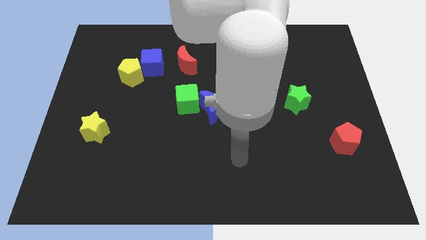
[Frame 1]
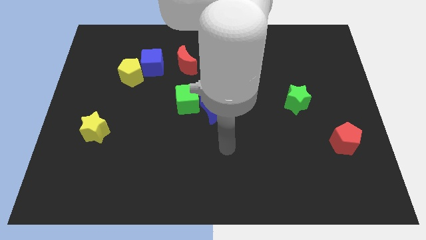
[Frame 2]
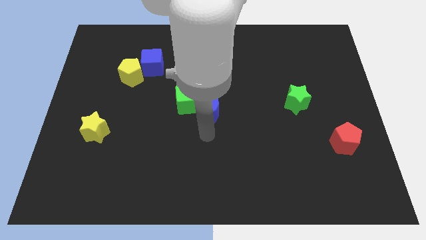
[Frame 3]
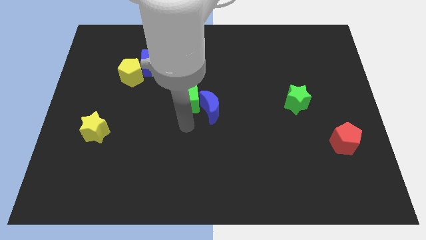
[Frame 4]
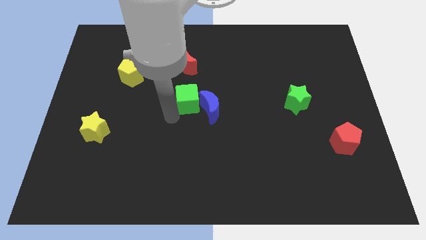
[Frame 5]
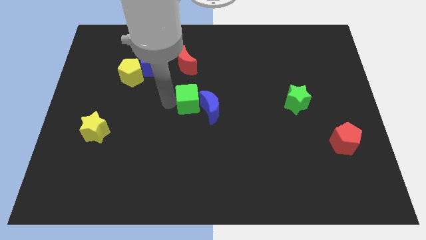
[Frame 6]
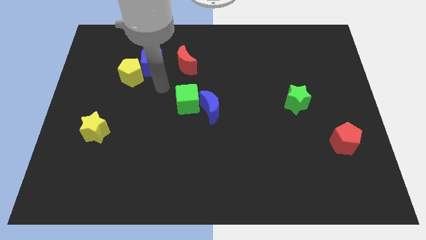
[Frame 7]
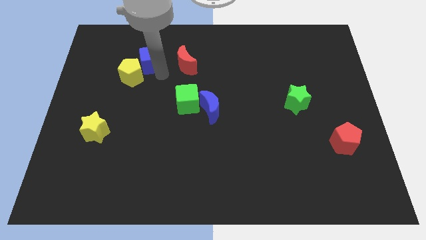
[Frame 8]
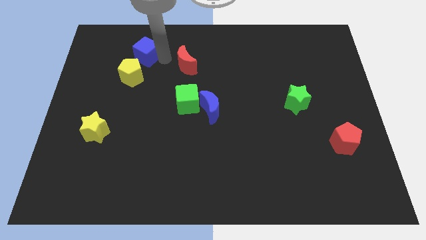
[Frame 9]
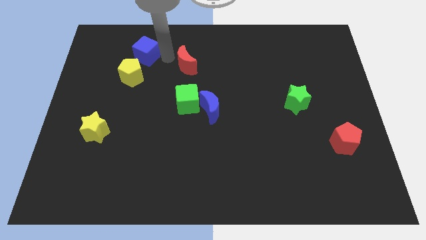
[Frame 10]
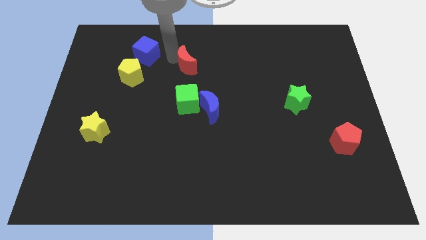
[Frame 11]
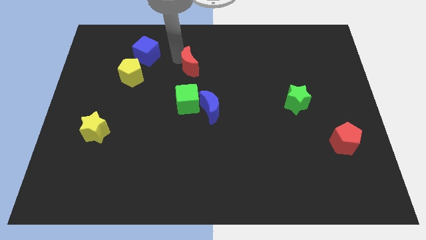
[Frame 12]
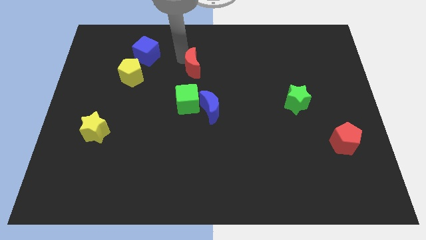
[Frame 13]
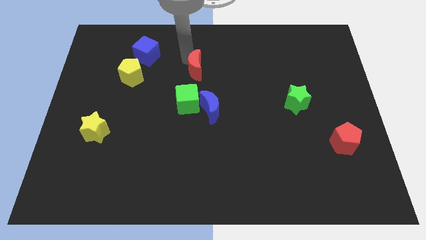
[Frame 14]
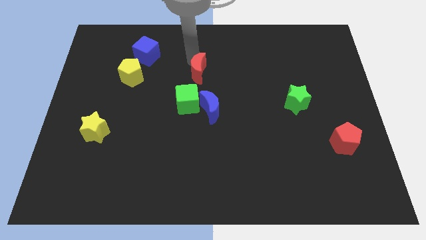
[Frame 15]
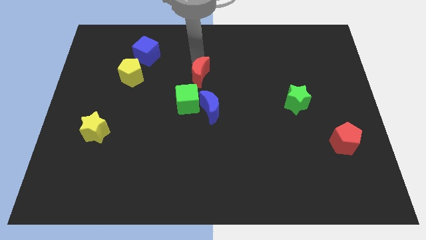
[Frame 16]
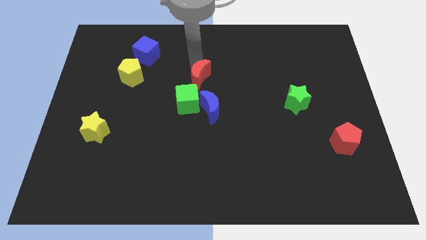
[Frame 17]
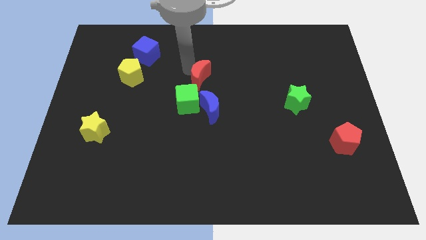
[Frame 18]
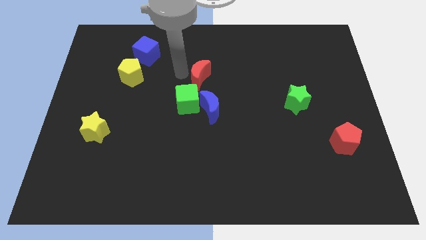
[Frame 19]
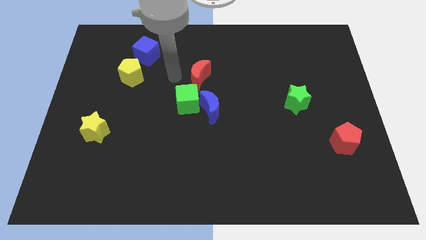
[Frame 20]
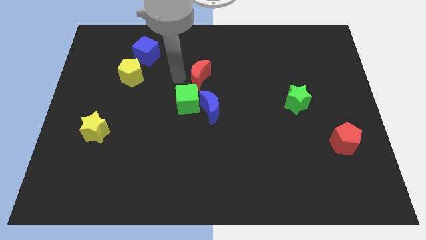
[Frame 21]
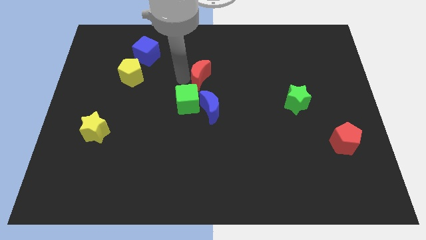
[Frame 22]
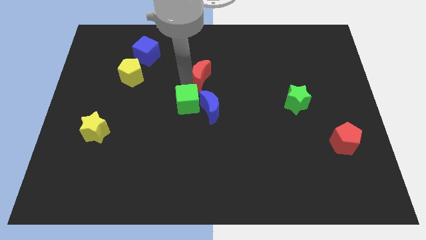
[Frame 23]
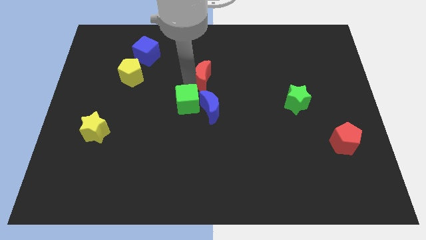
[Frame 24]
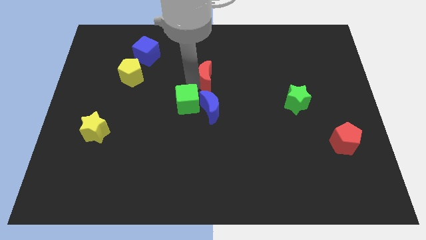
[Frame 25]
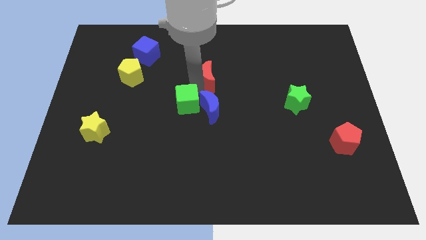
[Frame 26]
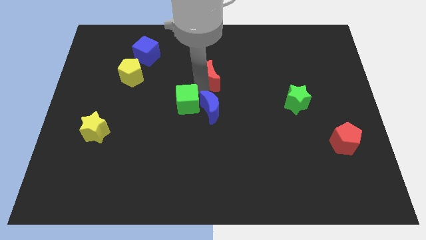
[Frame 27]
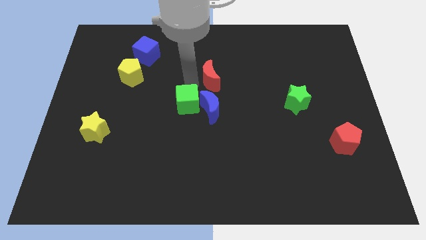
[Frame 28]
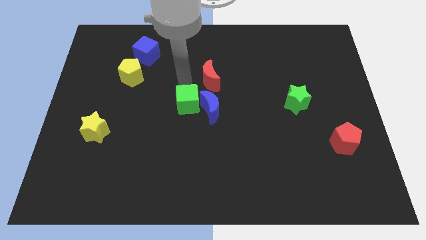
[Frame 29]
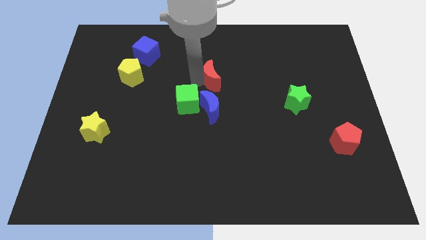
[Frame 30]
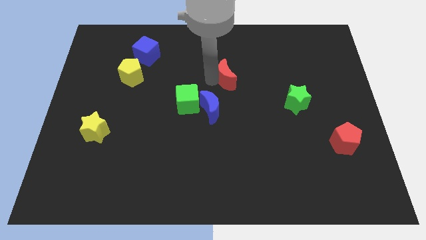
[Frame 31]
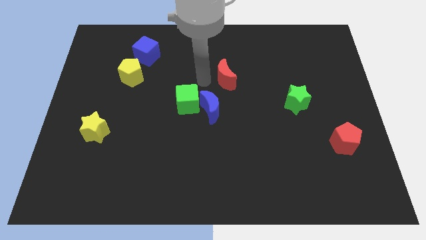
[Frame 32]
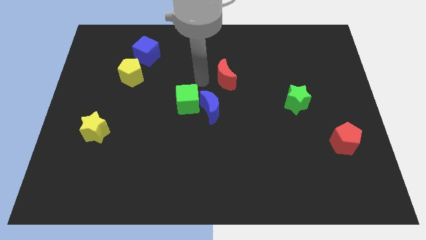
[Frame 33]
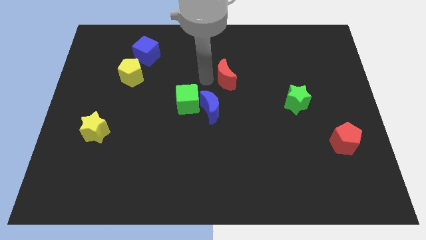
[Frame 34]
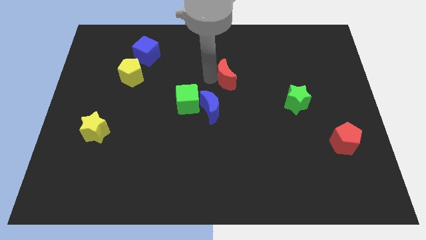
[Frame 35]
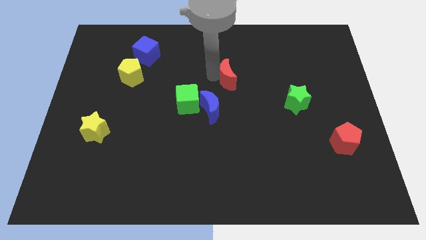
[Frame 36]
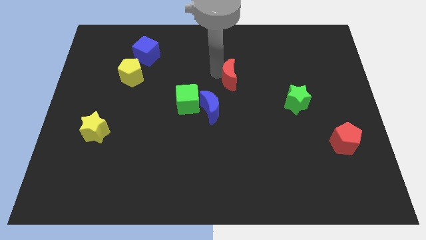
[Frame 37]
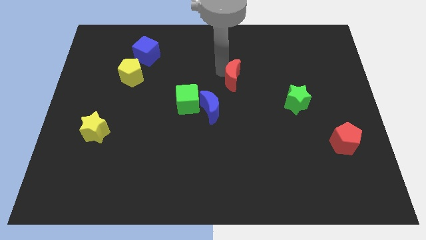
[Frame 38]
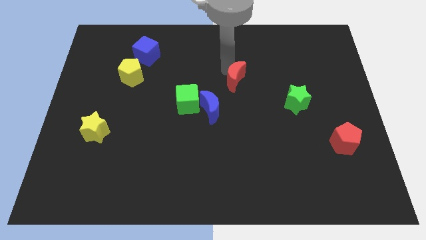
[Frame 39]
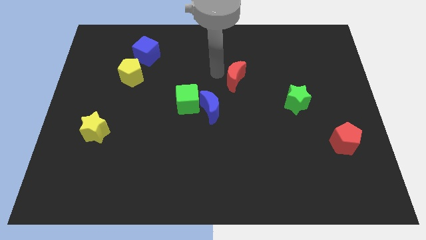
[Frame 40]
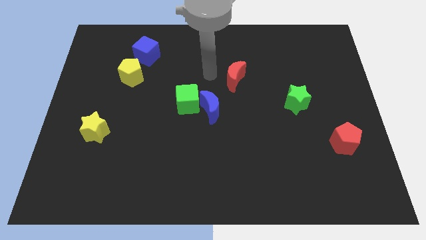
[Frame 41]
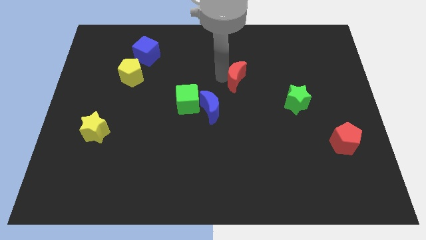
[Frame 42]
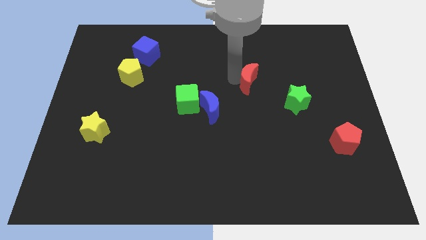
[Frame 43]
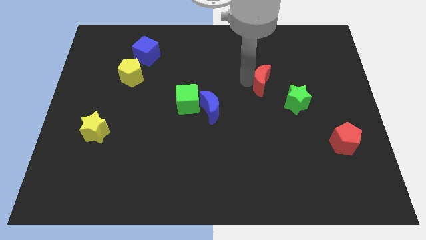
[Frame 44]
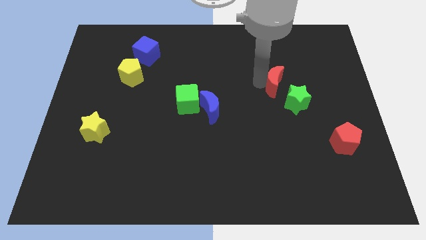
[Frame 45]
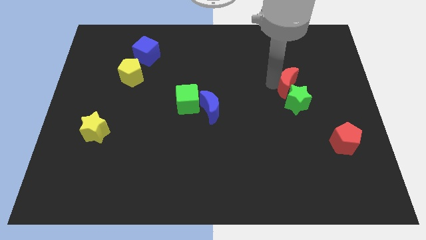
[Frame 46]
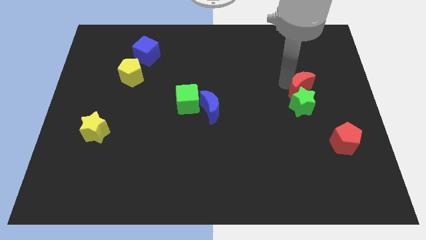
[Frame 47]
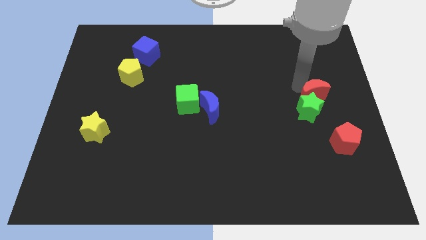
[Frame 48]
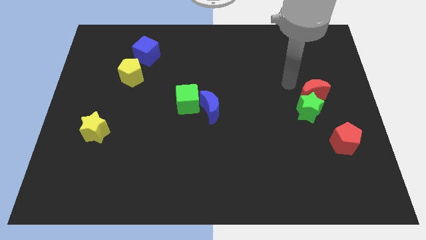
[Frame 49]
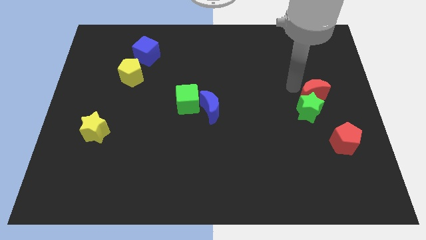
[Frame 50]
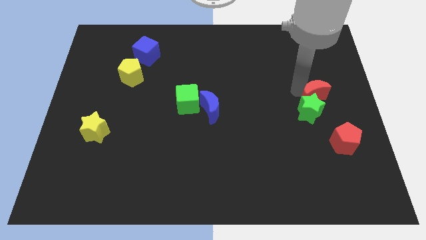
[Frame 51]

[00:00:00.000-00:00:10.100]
move the red moon above the red pentagon

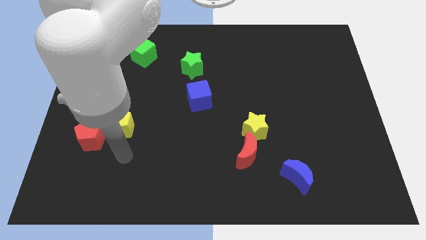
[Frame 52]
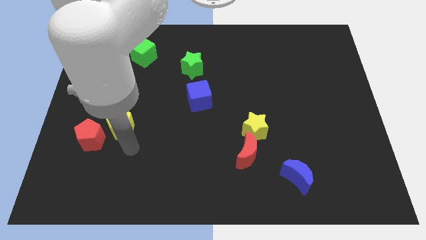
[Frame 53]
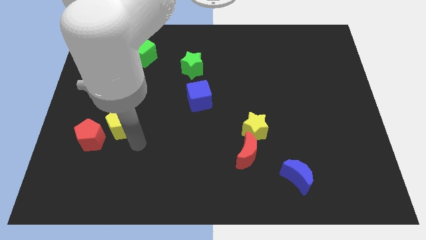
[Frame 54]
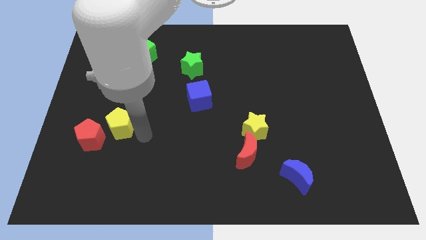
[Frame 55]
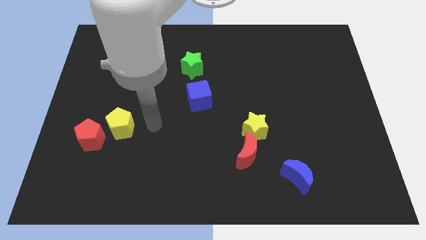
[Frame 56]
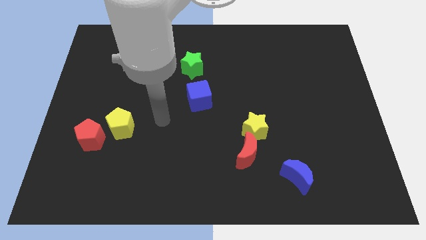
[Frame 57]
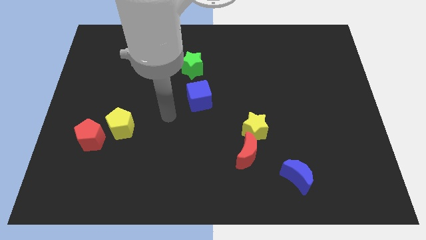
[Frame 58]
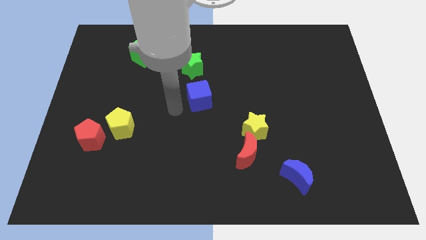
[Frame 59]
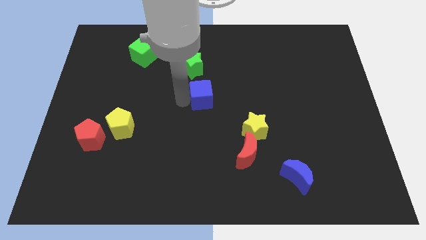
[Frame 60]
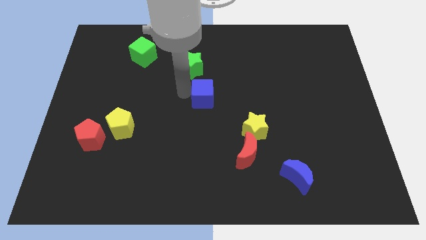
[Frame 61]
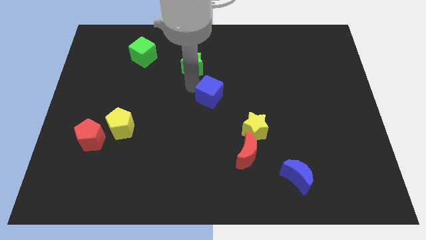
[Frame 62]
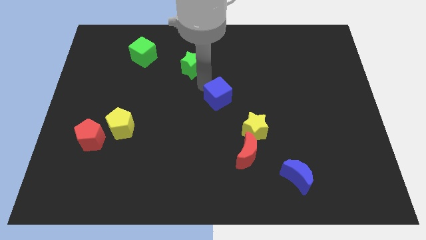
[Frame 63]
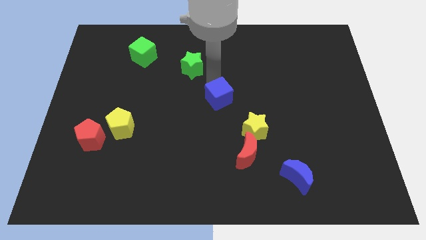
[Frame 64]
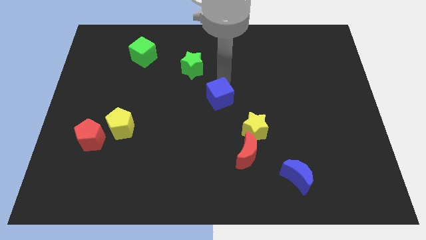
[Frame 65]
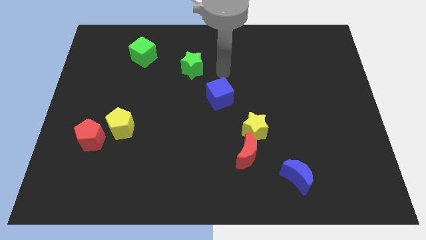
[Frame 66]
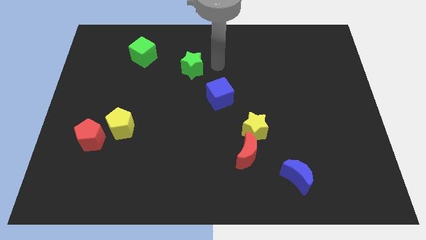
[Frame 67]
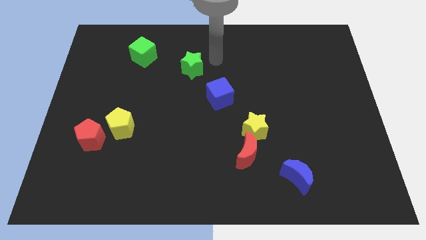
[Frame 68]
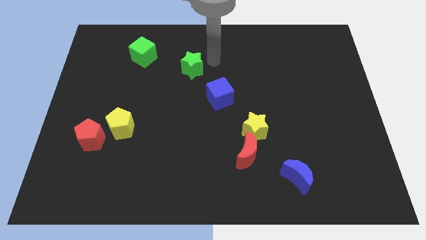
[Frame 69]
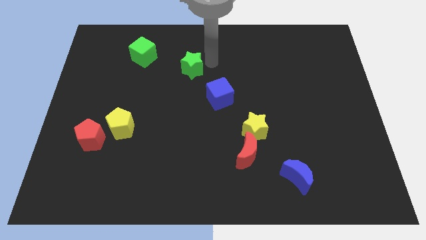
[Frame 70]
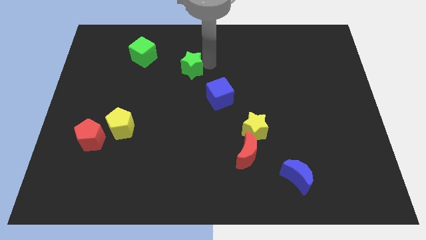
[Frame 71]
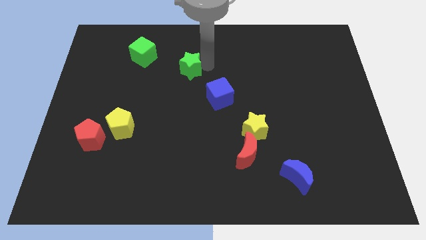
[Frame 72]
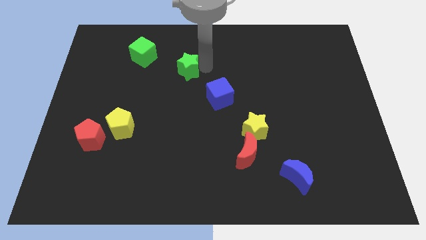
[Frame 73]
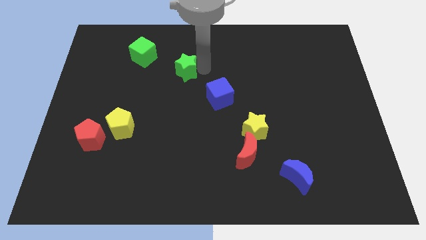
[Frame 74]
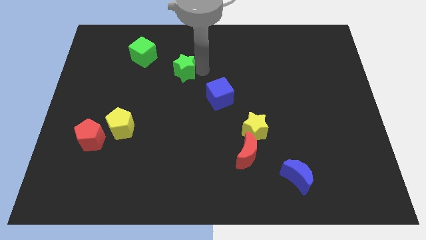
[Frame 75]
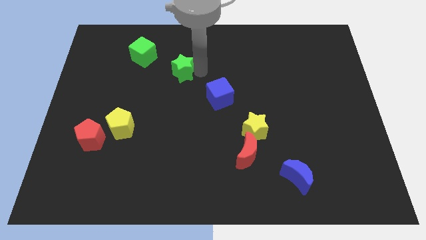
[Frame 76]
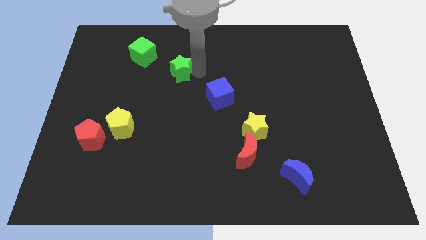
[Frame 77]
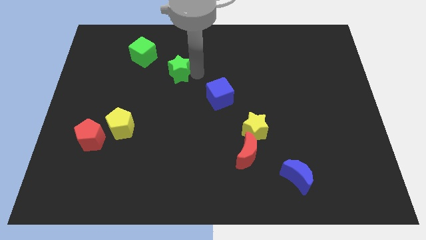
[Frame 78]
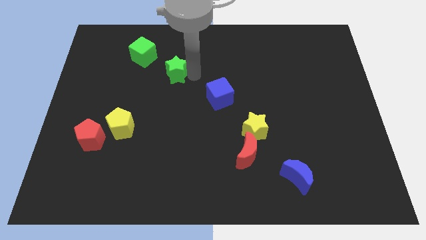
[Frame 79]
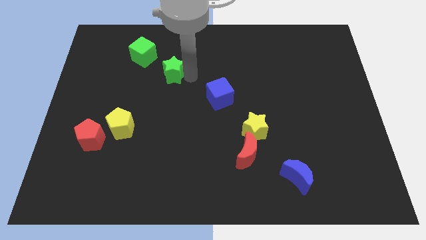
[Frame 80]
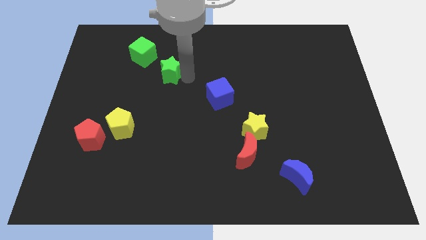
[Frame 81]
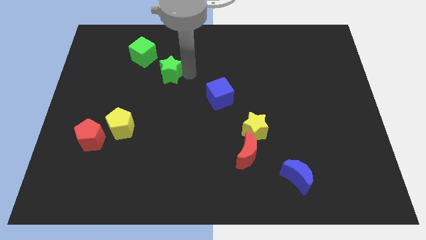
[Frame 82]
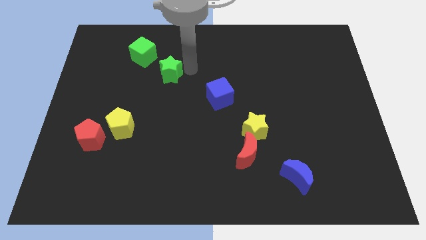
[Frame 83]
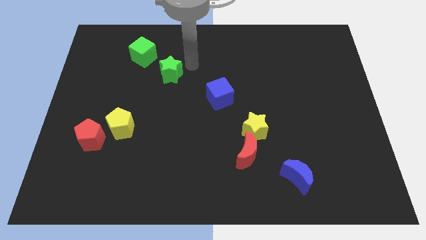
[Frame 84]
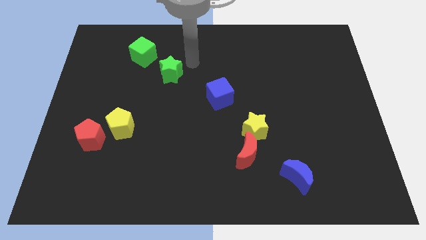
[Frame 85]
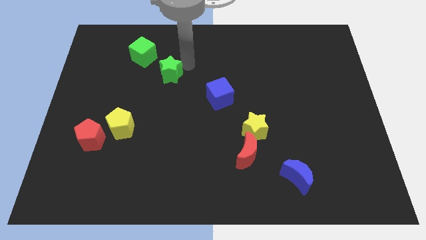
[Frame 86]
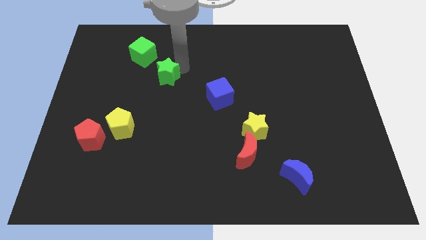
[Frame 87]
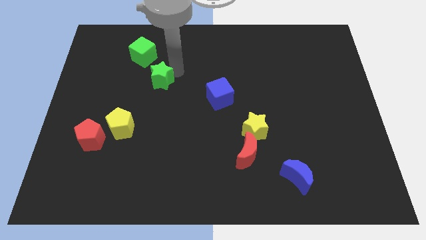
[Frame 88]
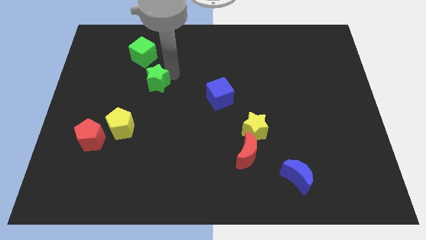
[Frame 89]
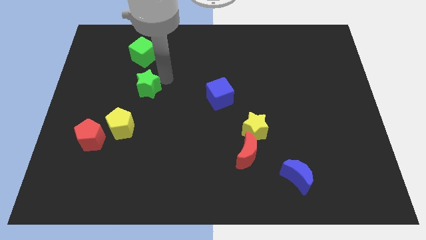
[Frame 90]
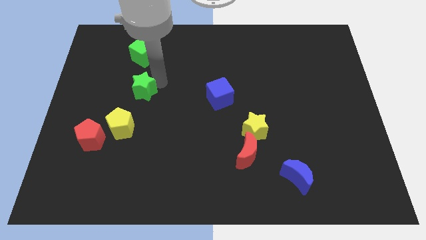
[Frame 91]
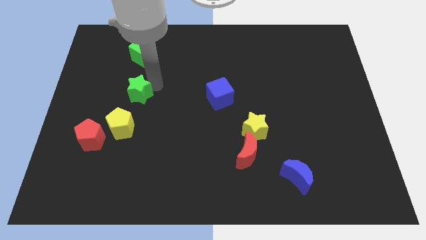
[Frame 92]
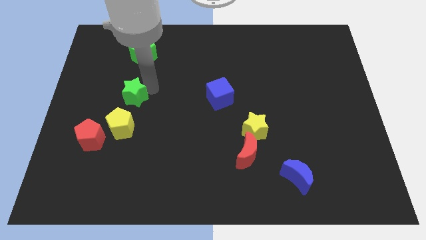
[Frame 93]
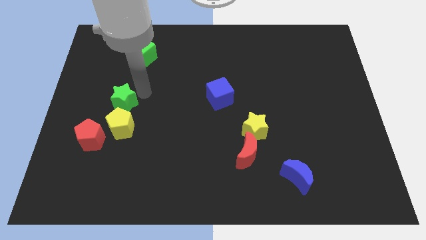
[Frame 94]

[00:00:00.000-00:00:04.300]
put the green star diagonally up and to the left of the yellow pentagon
